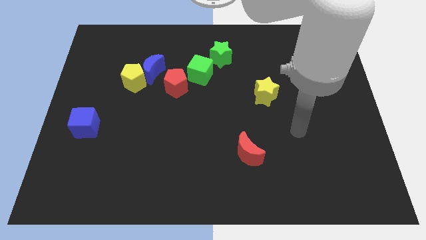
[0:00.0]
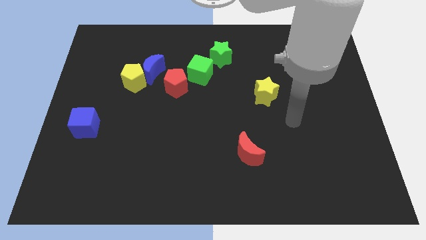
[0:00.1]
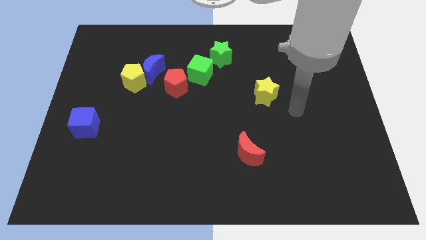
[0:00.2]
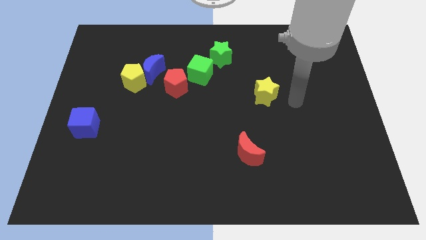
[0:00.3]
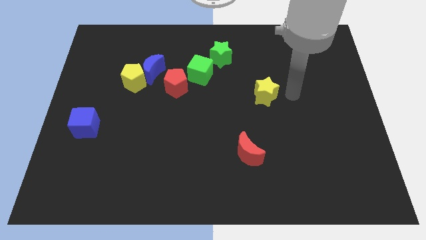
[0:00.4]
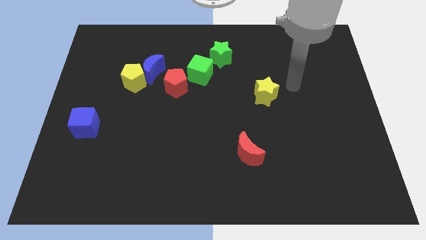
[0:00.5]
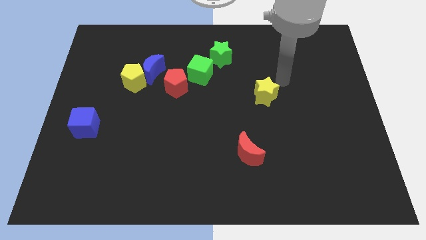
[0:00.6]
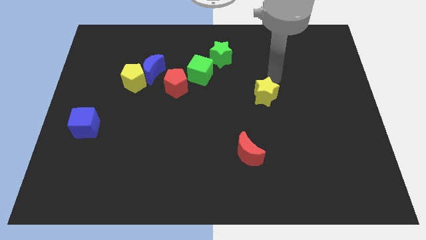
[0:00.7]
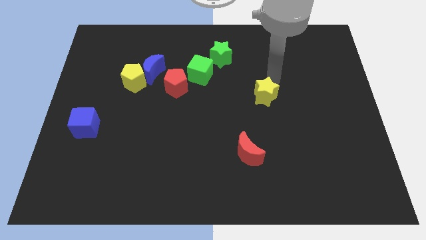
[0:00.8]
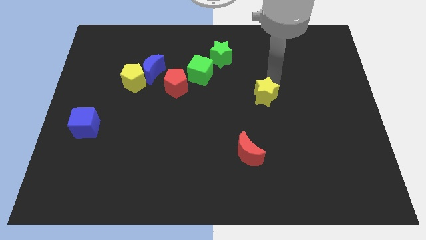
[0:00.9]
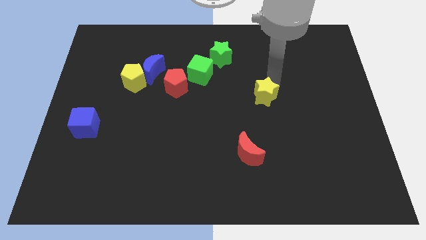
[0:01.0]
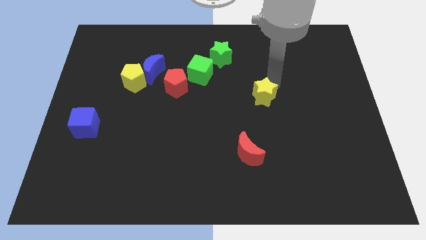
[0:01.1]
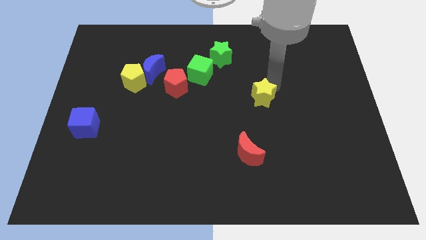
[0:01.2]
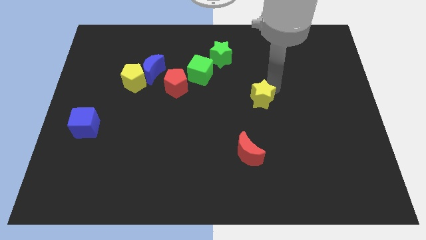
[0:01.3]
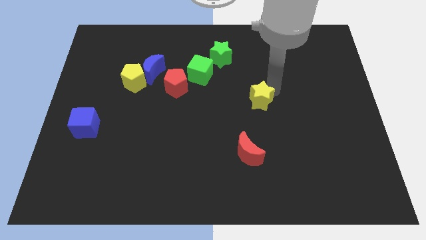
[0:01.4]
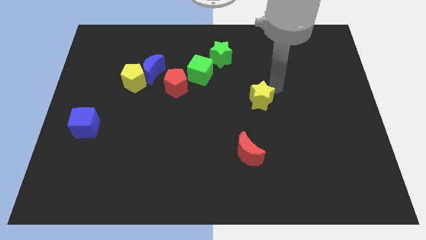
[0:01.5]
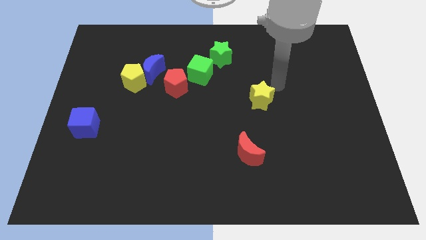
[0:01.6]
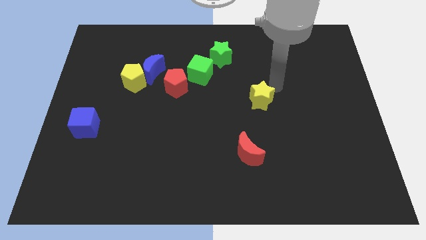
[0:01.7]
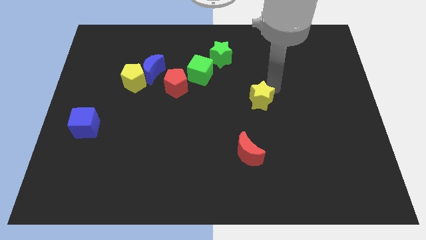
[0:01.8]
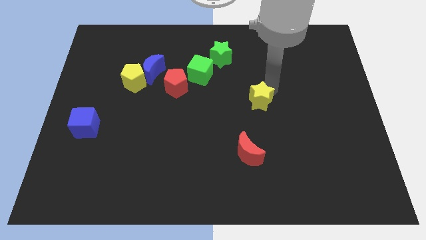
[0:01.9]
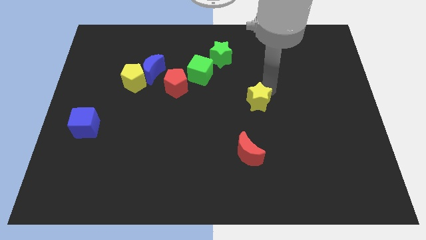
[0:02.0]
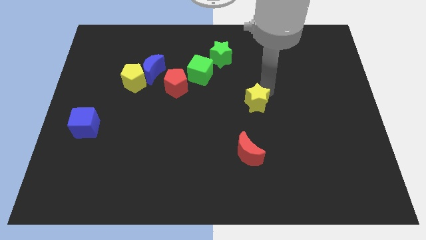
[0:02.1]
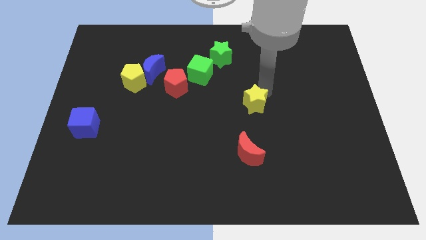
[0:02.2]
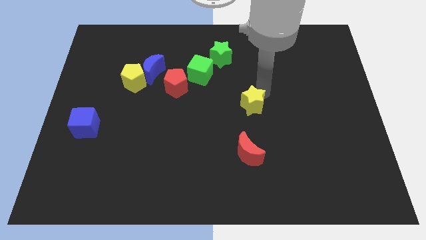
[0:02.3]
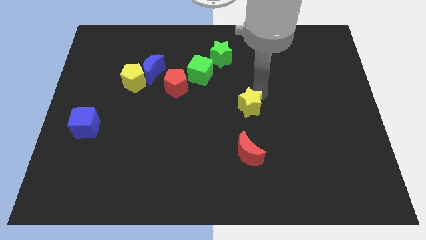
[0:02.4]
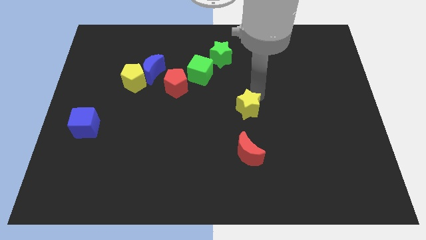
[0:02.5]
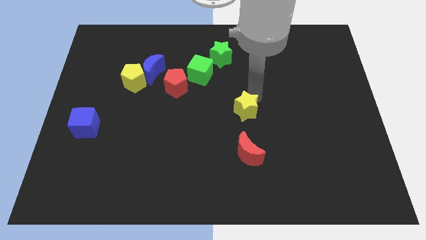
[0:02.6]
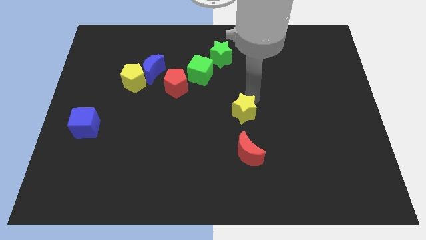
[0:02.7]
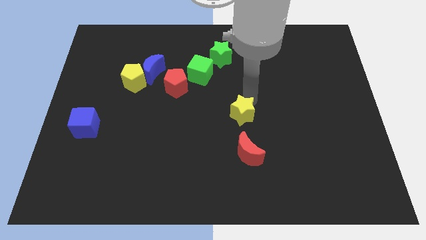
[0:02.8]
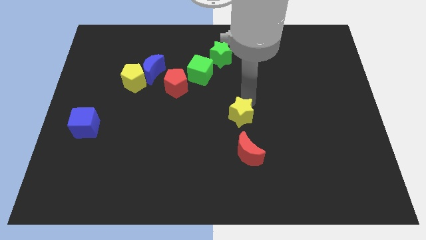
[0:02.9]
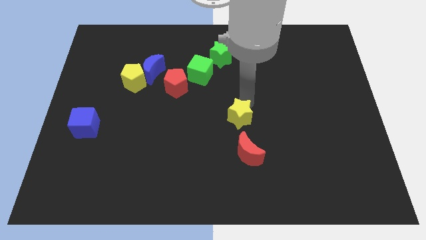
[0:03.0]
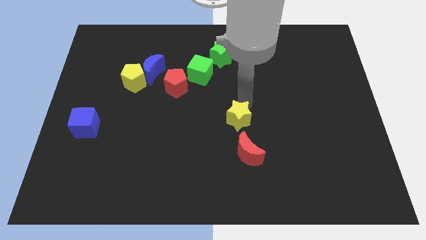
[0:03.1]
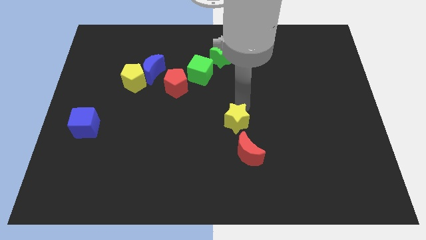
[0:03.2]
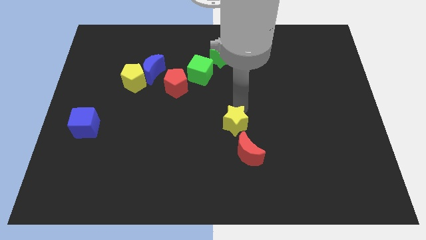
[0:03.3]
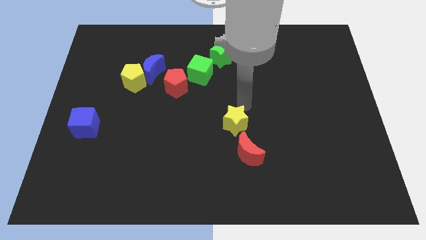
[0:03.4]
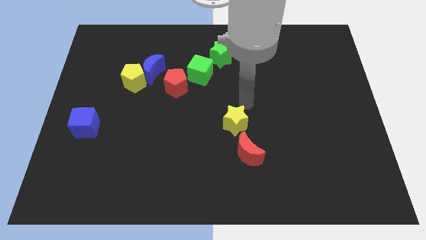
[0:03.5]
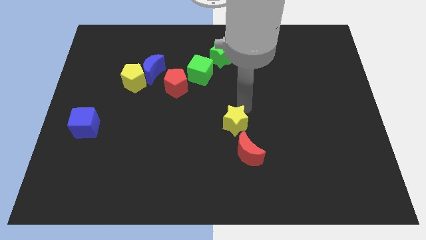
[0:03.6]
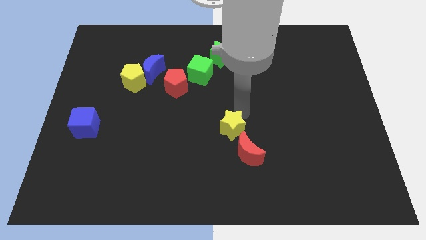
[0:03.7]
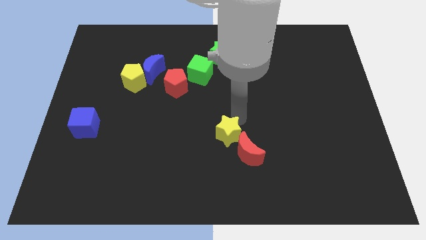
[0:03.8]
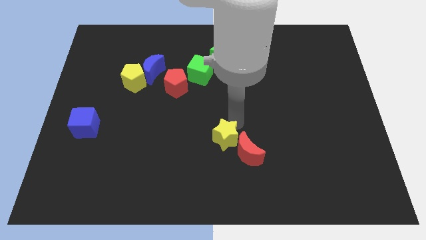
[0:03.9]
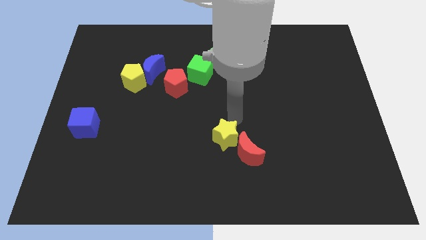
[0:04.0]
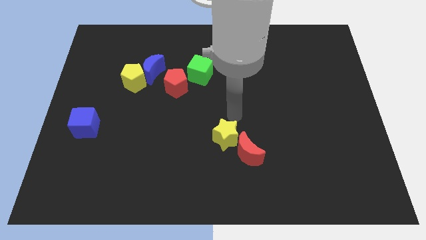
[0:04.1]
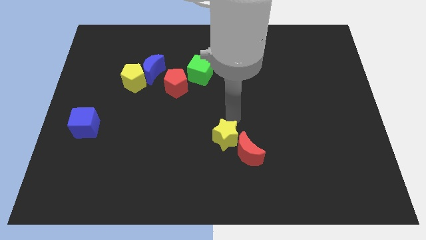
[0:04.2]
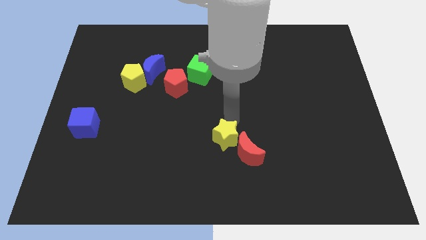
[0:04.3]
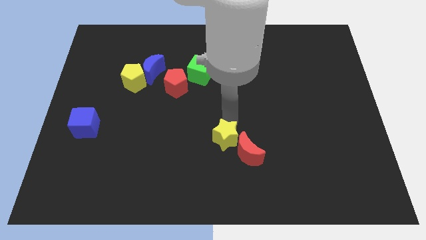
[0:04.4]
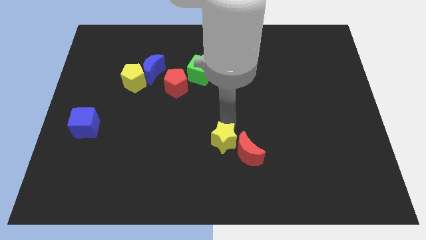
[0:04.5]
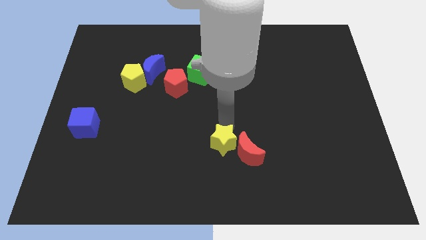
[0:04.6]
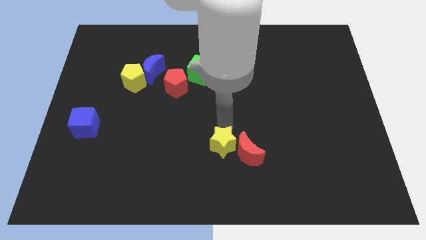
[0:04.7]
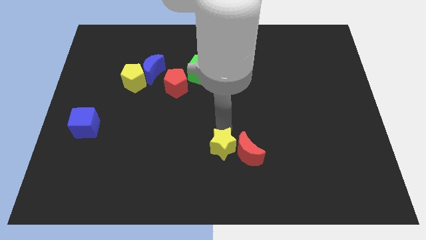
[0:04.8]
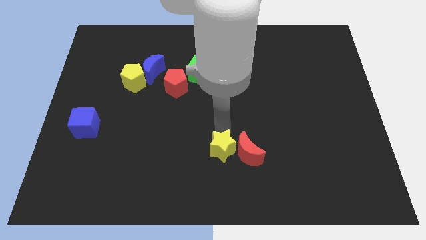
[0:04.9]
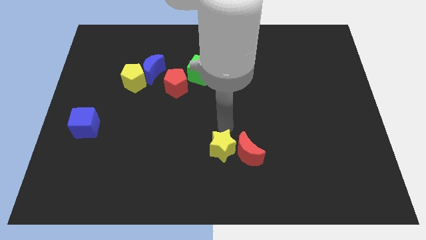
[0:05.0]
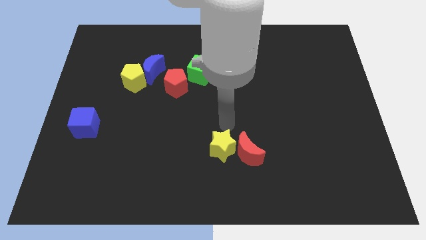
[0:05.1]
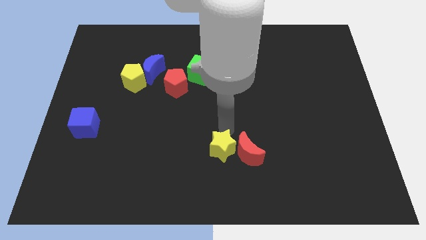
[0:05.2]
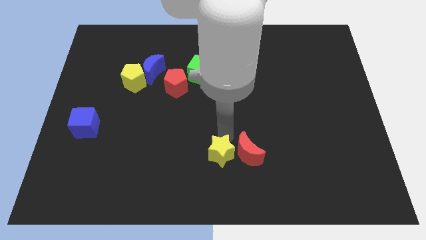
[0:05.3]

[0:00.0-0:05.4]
slide the yellow star to the bottom side
